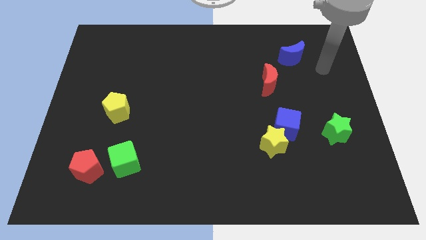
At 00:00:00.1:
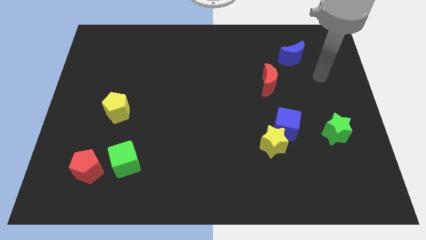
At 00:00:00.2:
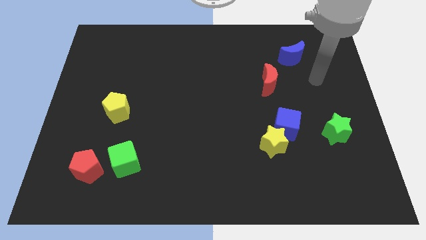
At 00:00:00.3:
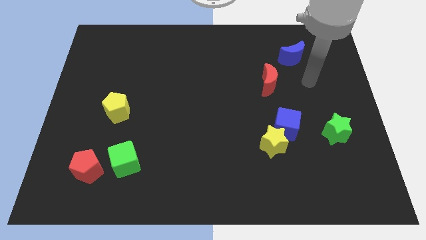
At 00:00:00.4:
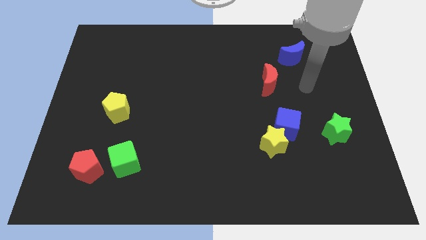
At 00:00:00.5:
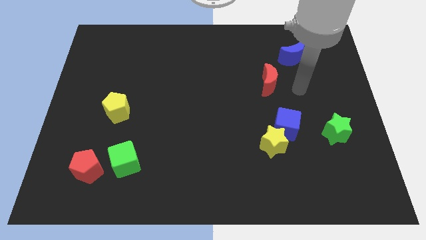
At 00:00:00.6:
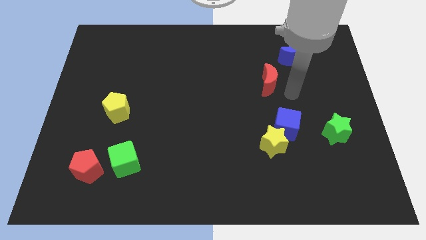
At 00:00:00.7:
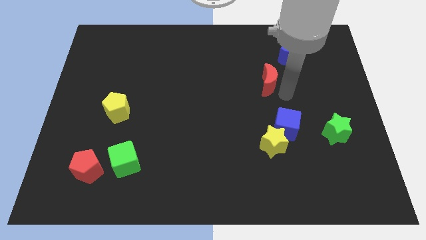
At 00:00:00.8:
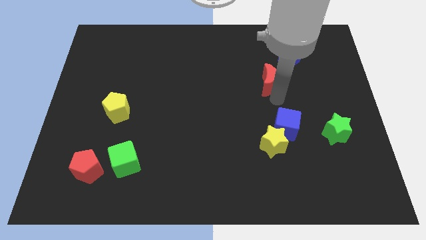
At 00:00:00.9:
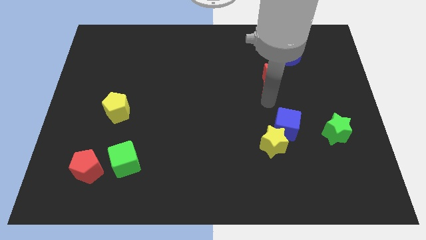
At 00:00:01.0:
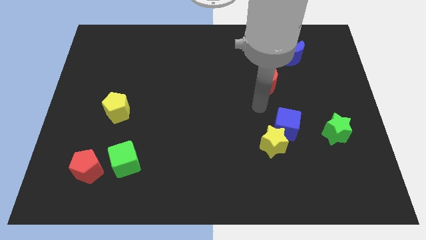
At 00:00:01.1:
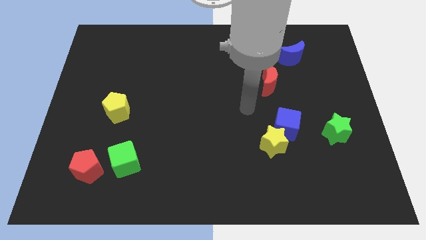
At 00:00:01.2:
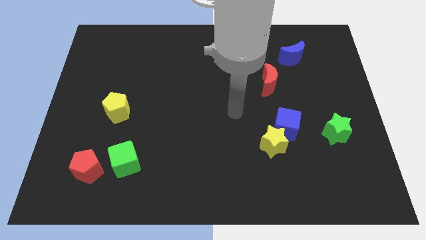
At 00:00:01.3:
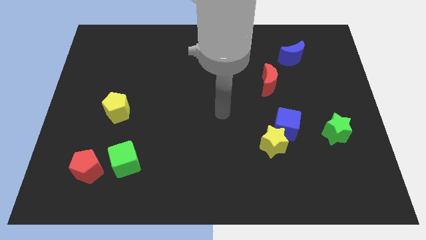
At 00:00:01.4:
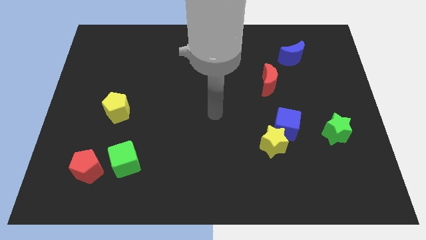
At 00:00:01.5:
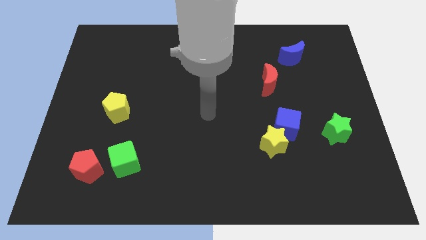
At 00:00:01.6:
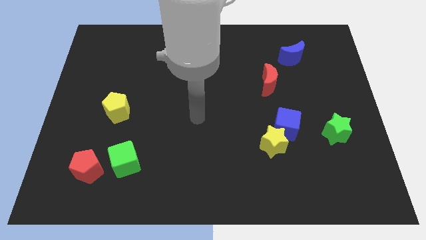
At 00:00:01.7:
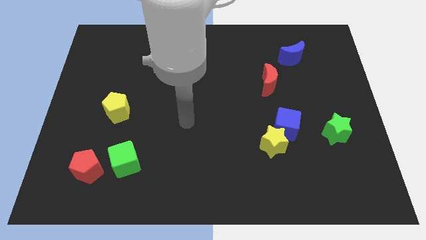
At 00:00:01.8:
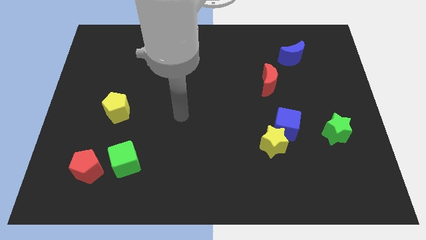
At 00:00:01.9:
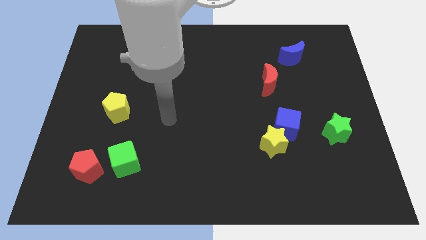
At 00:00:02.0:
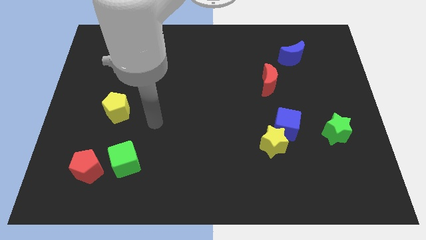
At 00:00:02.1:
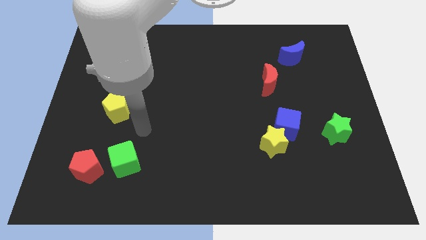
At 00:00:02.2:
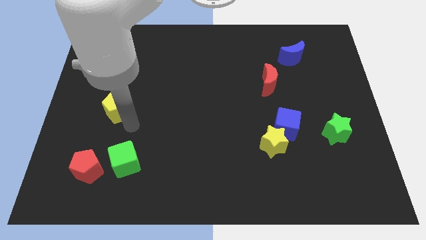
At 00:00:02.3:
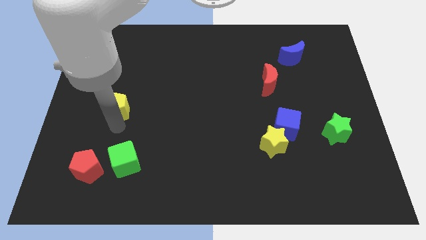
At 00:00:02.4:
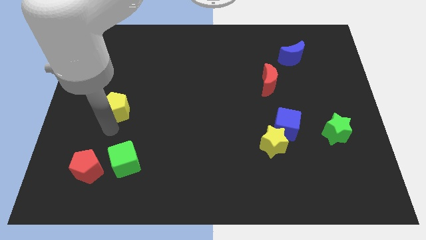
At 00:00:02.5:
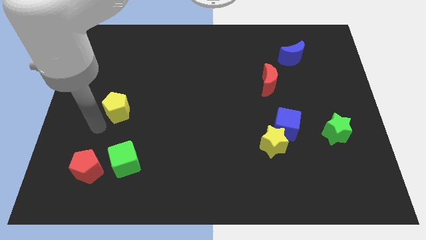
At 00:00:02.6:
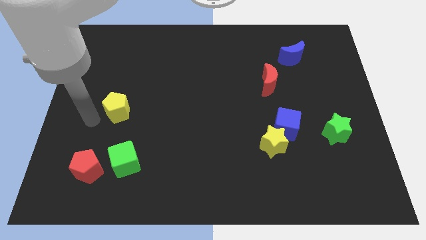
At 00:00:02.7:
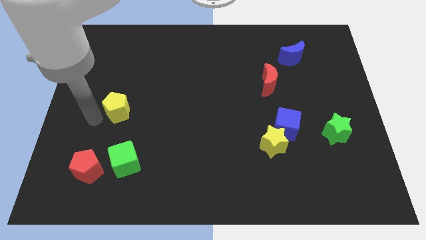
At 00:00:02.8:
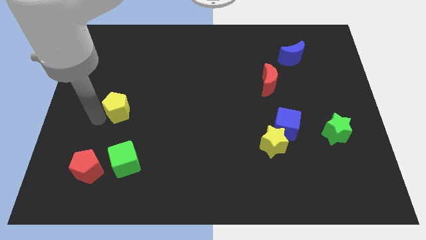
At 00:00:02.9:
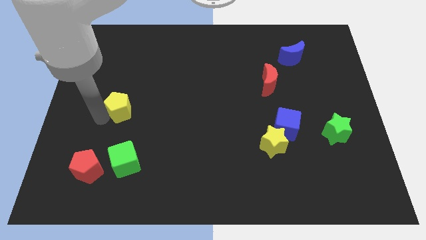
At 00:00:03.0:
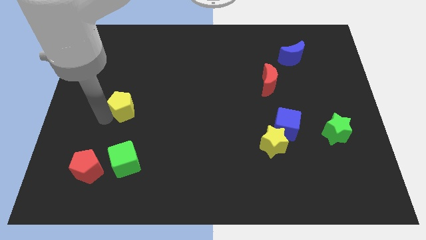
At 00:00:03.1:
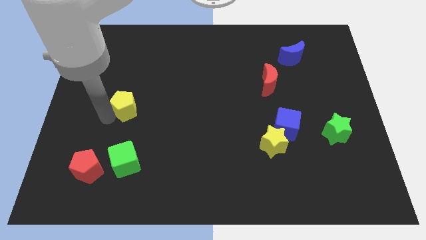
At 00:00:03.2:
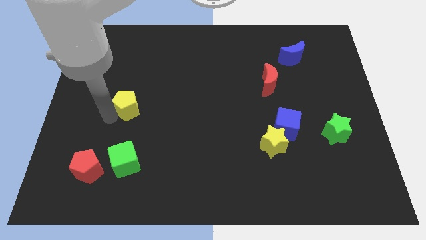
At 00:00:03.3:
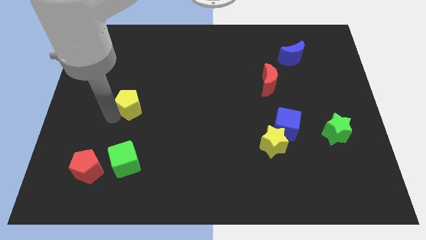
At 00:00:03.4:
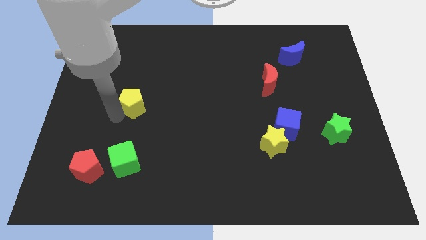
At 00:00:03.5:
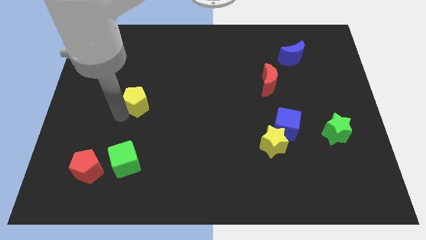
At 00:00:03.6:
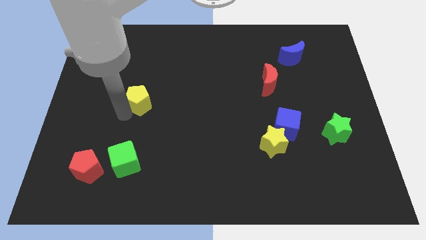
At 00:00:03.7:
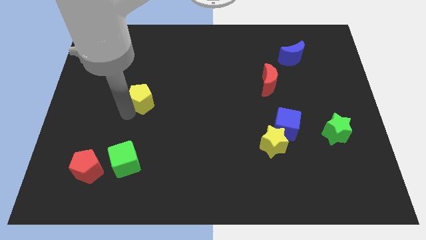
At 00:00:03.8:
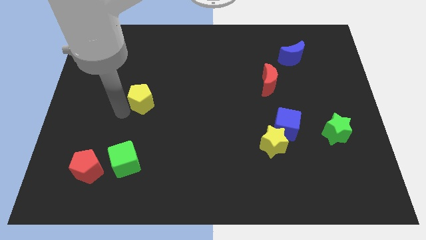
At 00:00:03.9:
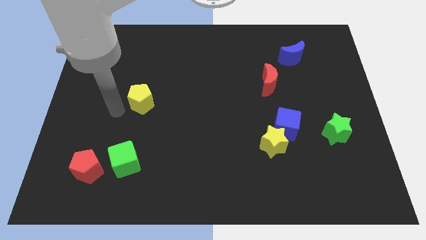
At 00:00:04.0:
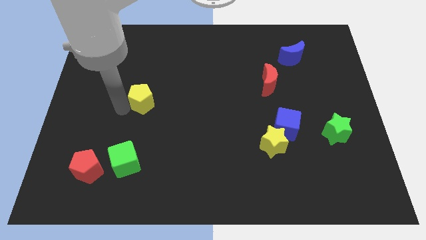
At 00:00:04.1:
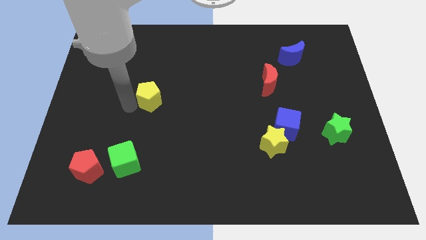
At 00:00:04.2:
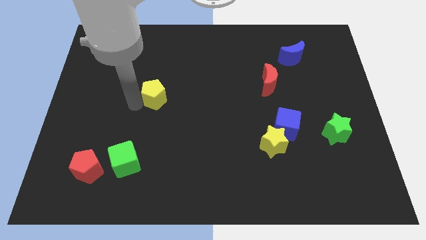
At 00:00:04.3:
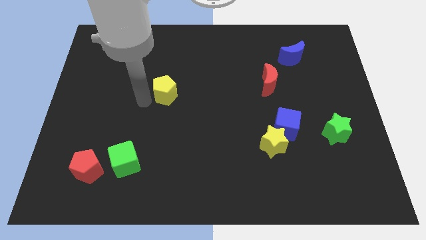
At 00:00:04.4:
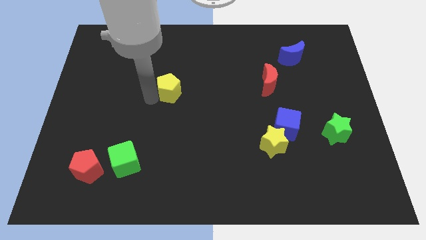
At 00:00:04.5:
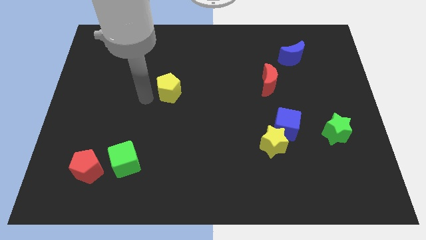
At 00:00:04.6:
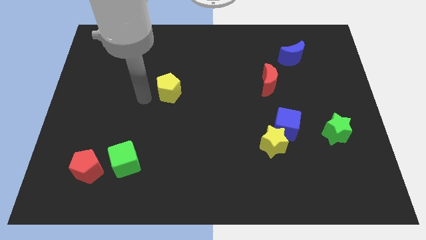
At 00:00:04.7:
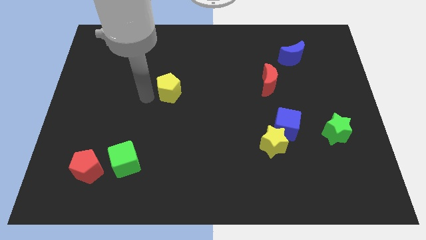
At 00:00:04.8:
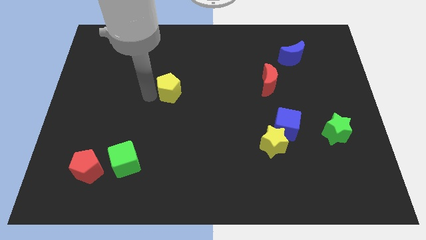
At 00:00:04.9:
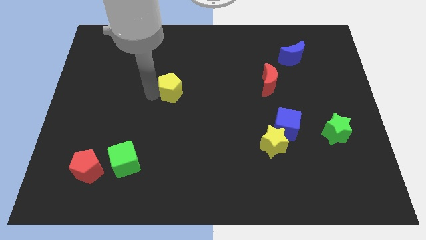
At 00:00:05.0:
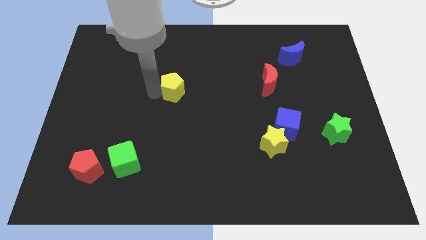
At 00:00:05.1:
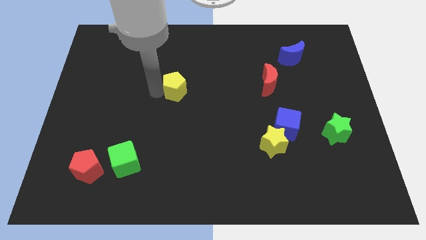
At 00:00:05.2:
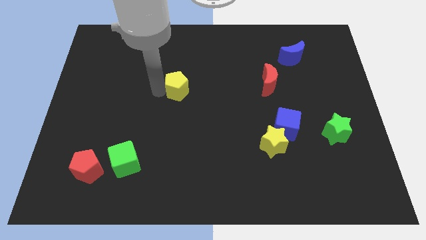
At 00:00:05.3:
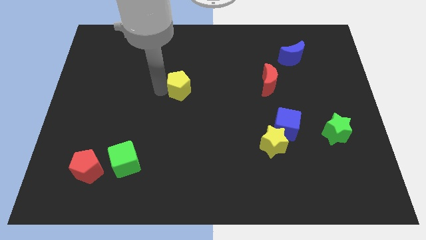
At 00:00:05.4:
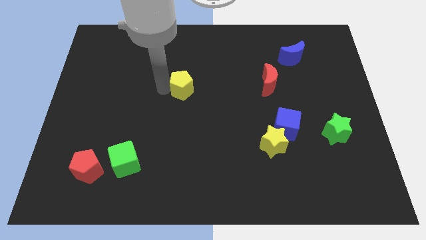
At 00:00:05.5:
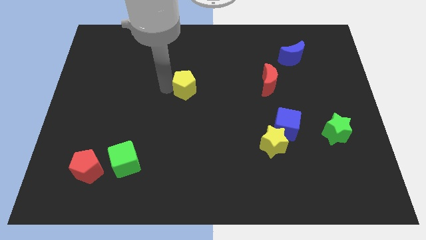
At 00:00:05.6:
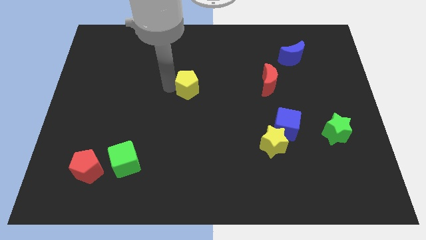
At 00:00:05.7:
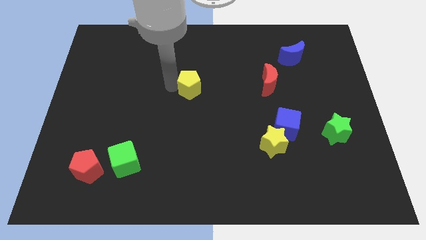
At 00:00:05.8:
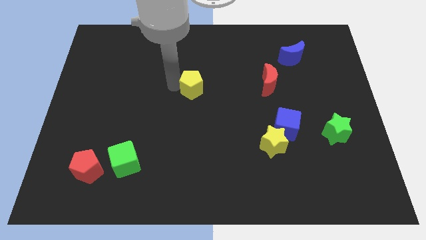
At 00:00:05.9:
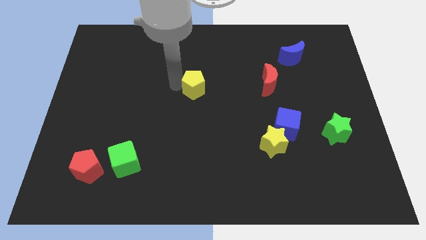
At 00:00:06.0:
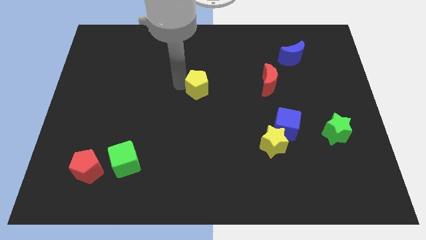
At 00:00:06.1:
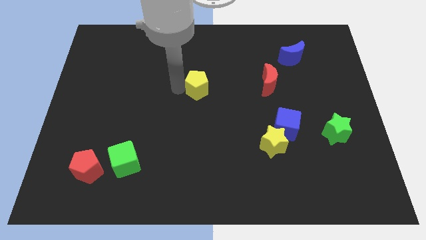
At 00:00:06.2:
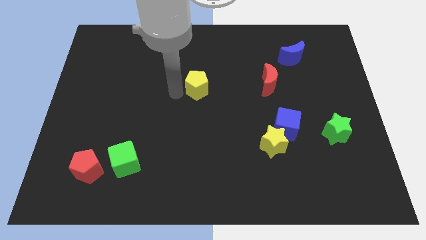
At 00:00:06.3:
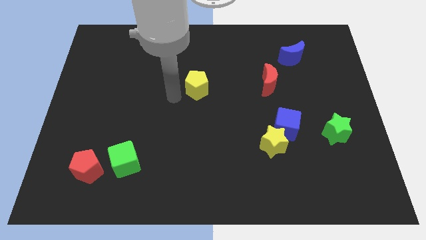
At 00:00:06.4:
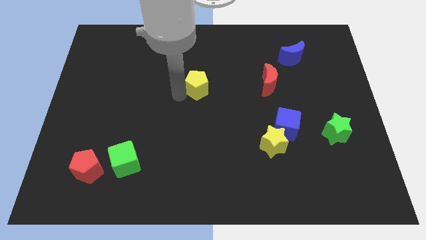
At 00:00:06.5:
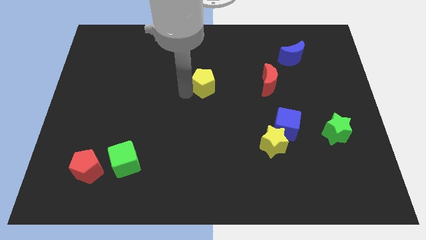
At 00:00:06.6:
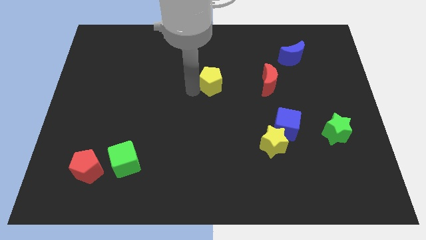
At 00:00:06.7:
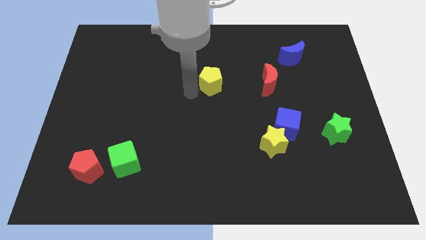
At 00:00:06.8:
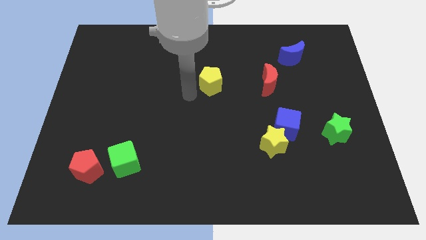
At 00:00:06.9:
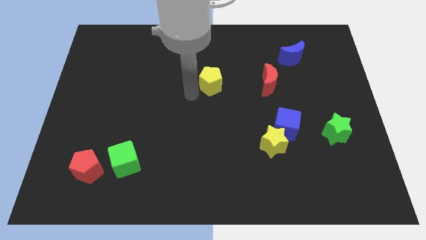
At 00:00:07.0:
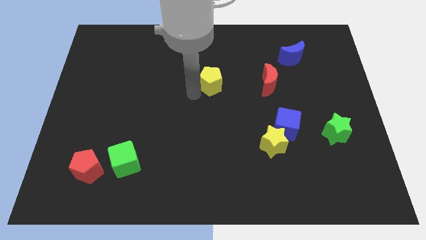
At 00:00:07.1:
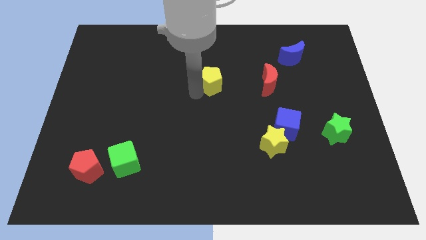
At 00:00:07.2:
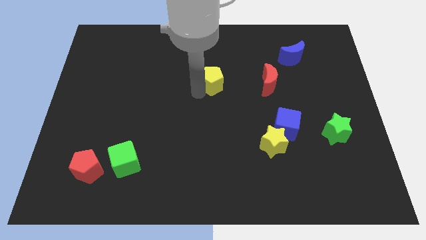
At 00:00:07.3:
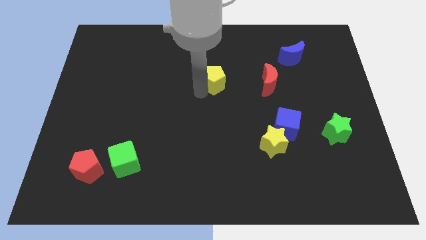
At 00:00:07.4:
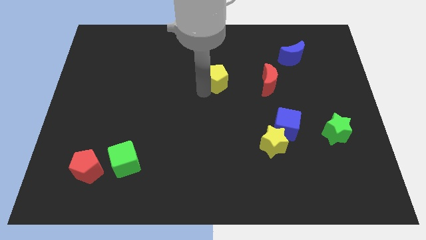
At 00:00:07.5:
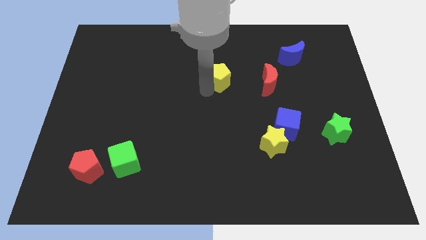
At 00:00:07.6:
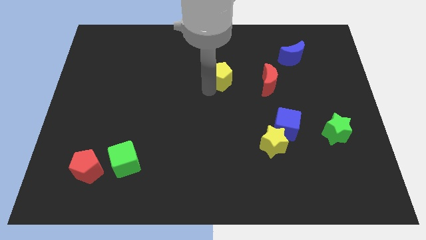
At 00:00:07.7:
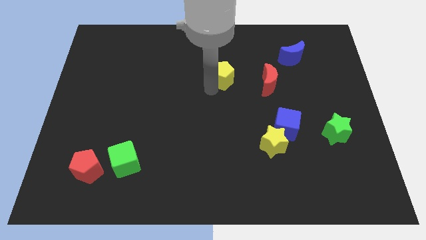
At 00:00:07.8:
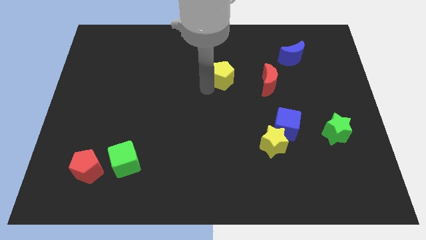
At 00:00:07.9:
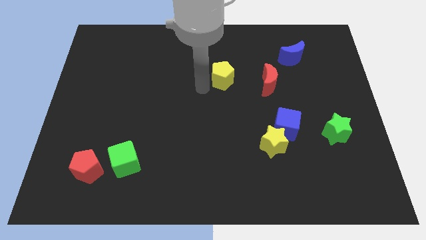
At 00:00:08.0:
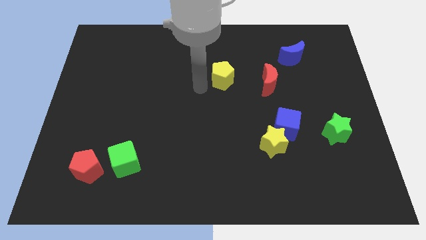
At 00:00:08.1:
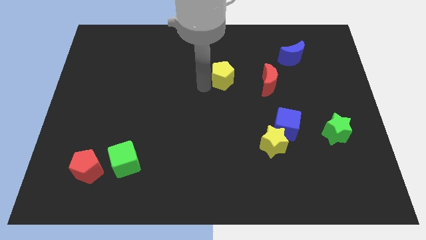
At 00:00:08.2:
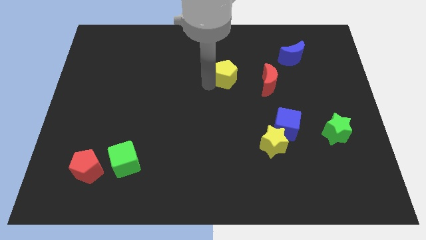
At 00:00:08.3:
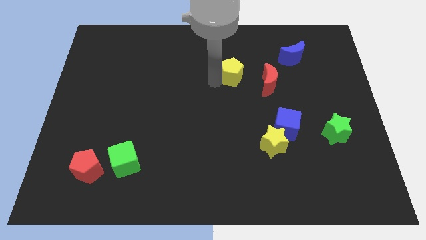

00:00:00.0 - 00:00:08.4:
move the yellow pentagon to the top left side of the red moon
